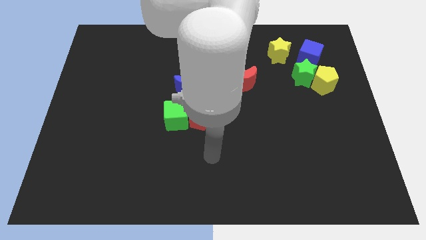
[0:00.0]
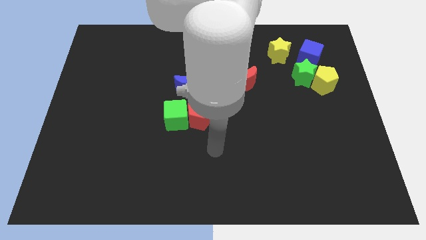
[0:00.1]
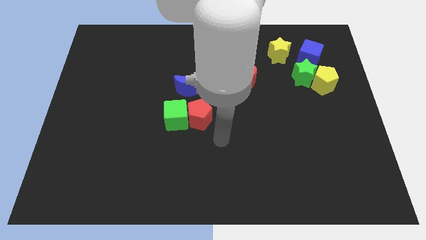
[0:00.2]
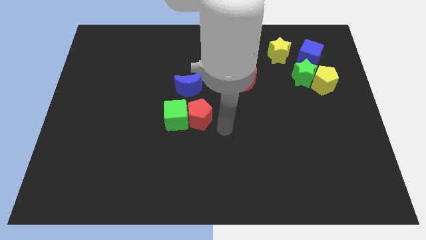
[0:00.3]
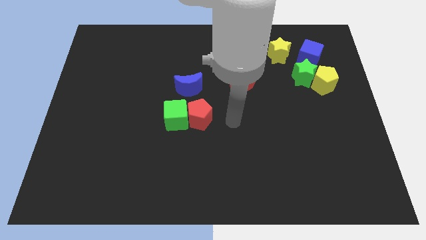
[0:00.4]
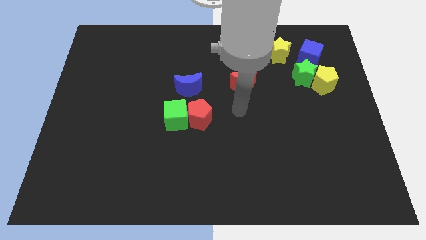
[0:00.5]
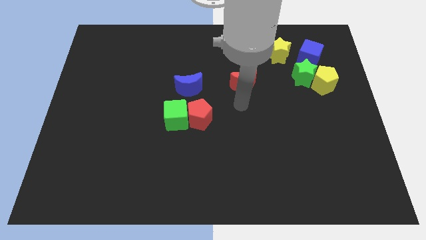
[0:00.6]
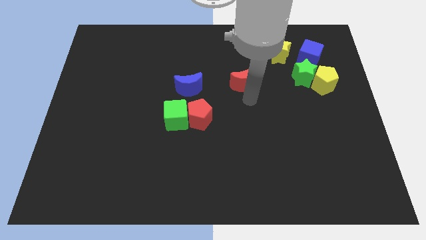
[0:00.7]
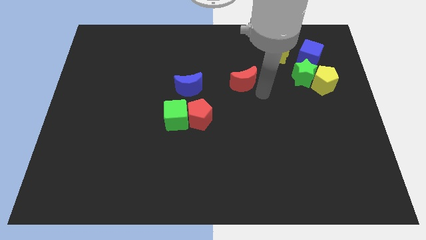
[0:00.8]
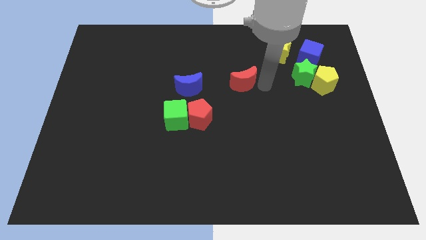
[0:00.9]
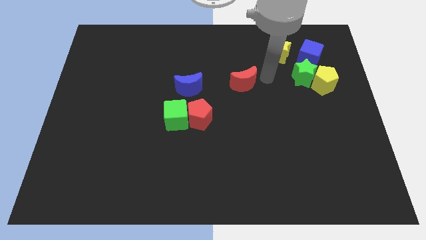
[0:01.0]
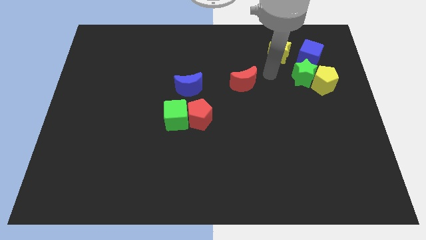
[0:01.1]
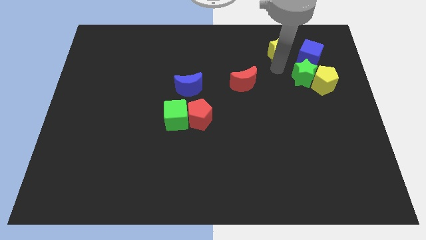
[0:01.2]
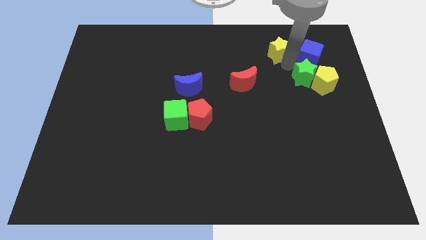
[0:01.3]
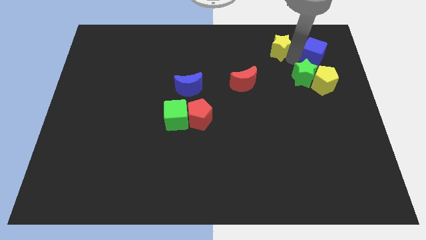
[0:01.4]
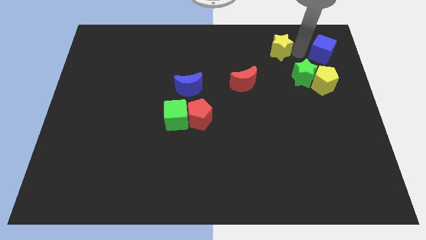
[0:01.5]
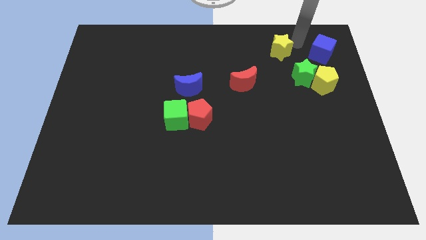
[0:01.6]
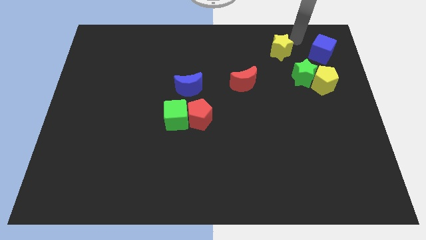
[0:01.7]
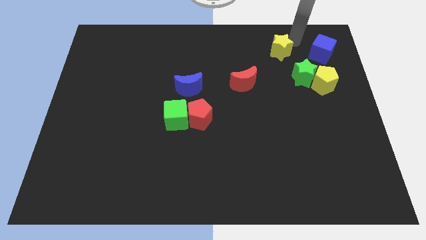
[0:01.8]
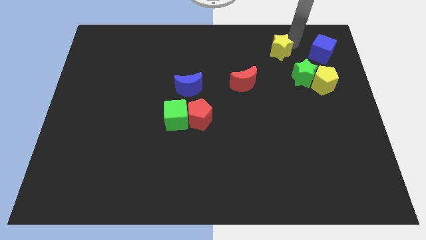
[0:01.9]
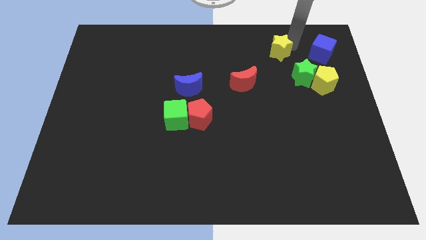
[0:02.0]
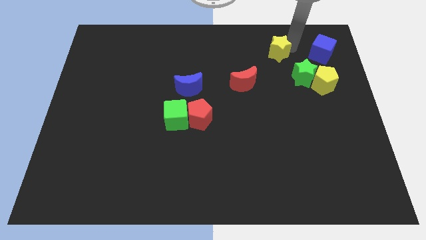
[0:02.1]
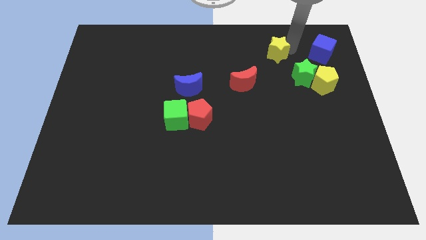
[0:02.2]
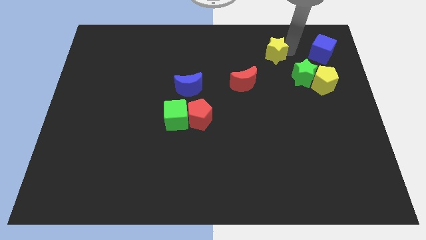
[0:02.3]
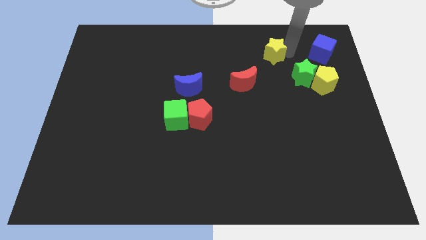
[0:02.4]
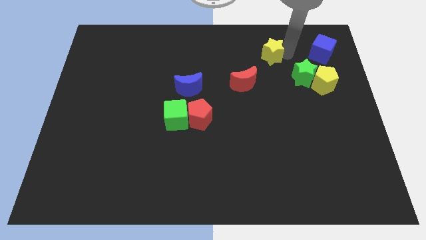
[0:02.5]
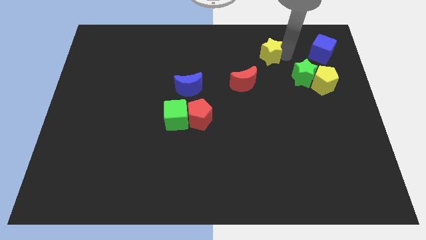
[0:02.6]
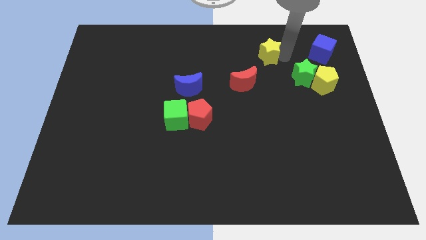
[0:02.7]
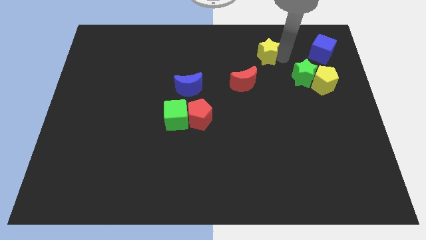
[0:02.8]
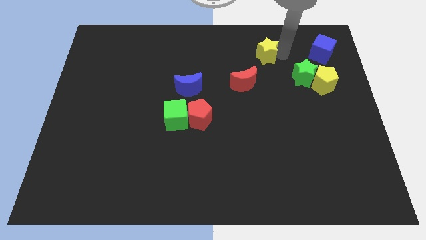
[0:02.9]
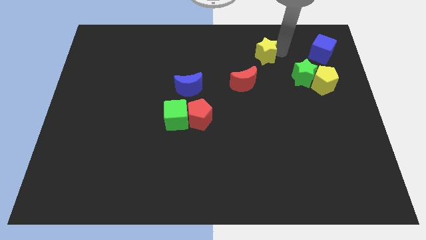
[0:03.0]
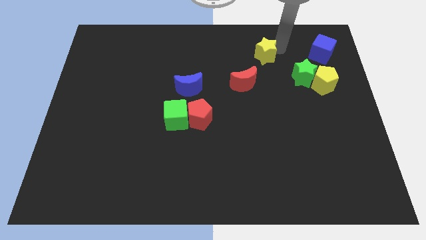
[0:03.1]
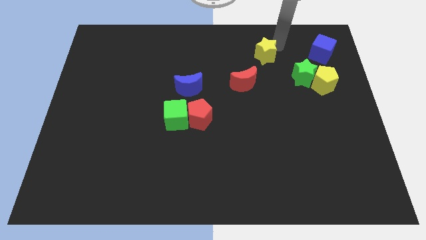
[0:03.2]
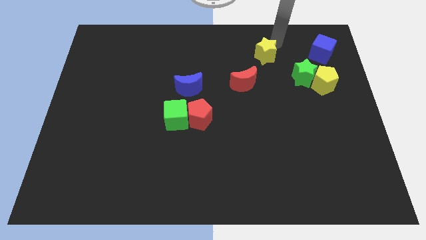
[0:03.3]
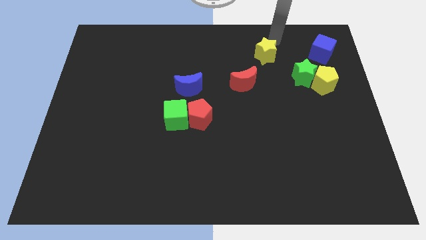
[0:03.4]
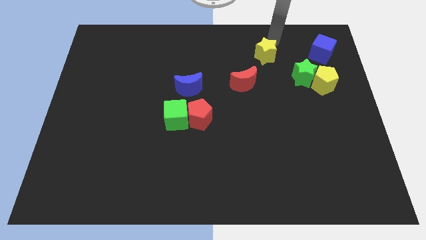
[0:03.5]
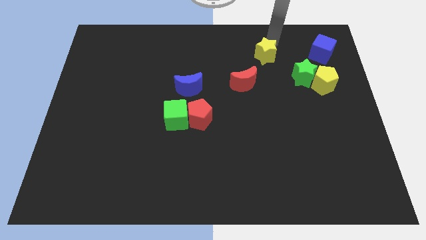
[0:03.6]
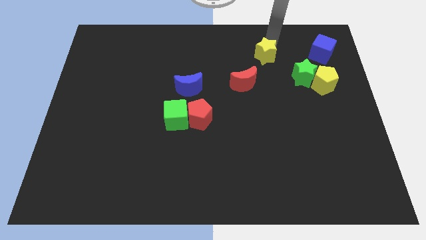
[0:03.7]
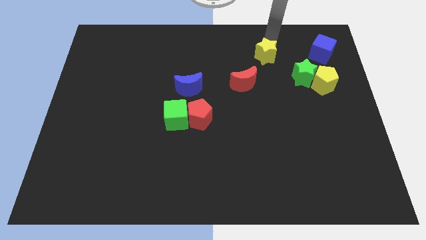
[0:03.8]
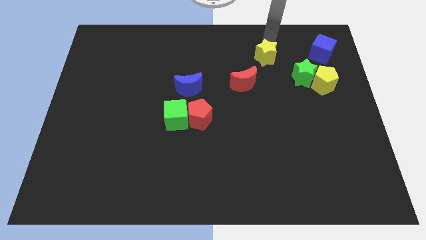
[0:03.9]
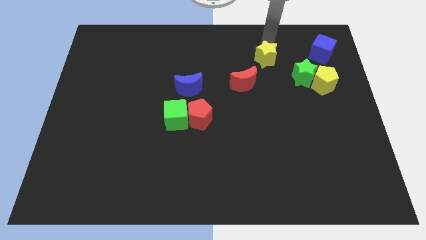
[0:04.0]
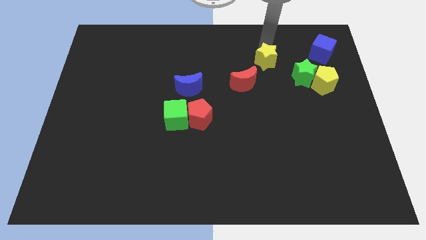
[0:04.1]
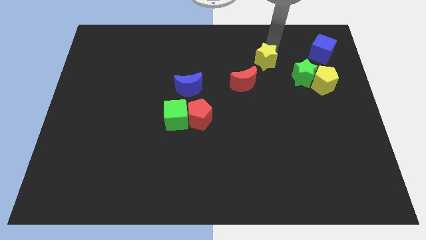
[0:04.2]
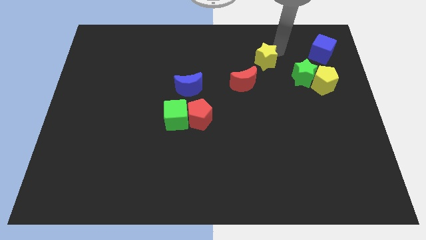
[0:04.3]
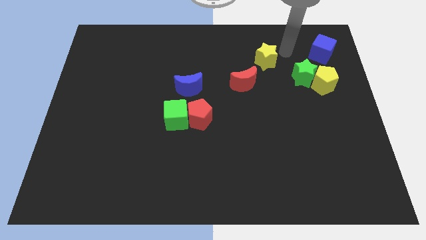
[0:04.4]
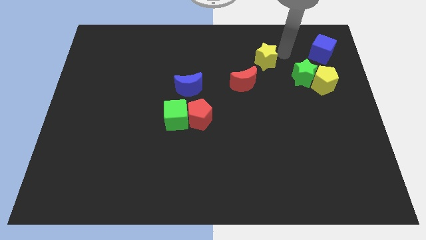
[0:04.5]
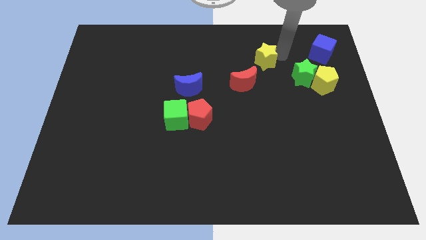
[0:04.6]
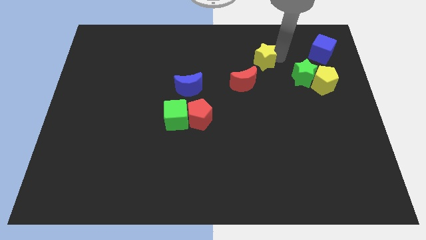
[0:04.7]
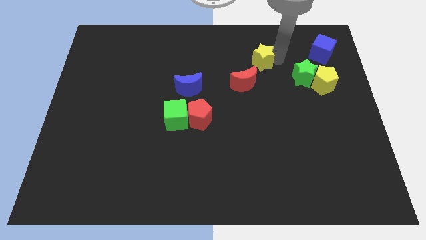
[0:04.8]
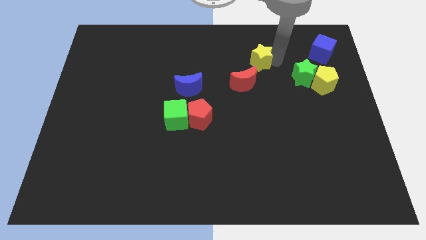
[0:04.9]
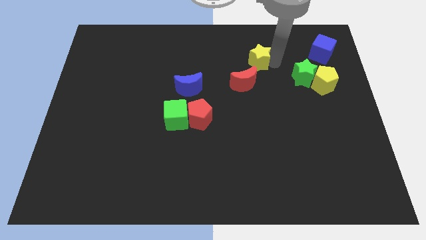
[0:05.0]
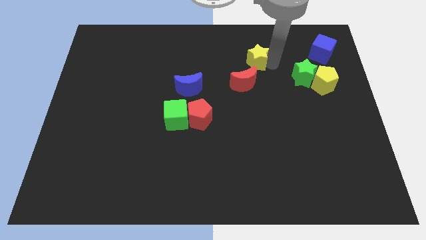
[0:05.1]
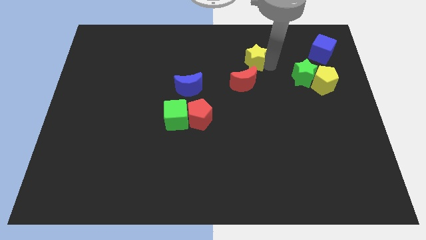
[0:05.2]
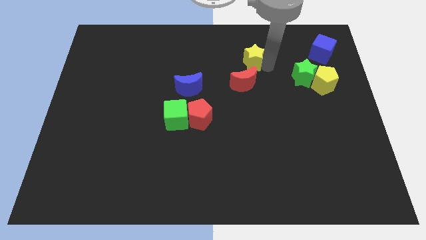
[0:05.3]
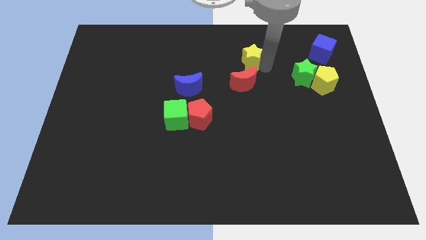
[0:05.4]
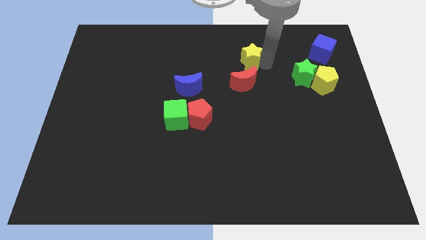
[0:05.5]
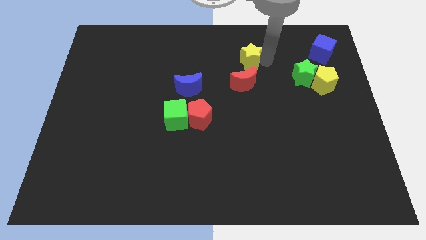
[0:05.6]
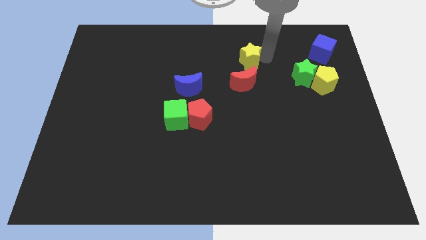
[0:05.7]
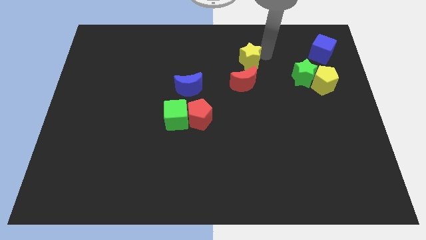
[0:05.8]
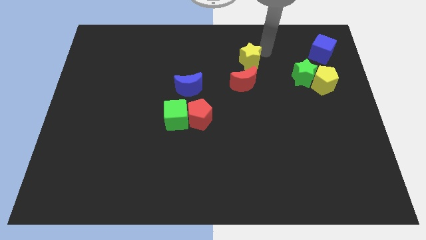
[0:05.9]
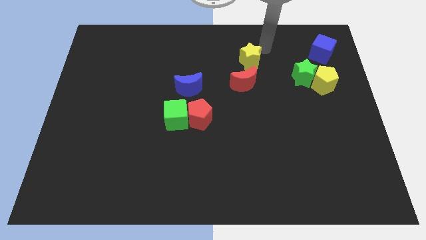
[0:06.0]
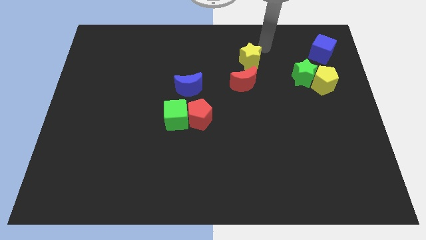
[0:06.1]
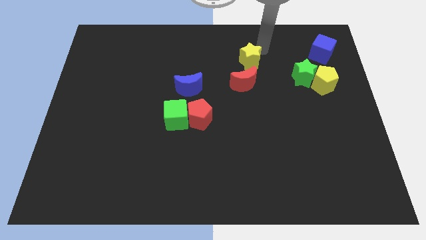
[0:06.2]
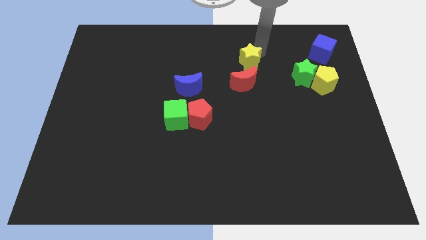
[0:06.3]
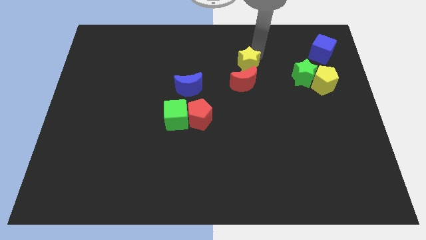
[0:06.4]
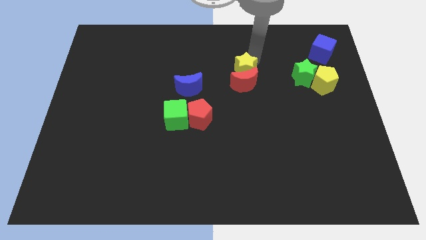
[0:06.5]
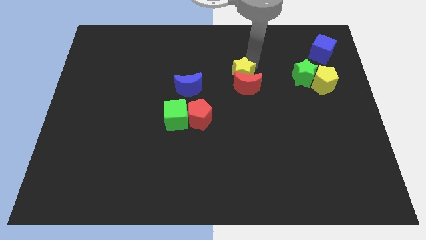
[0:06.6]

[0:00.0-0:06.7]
put the yellow star to the center of the board

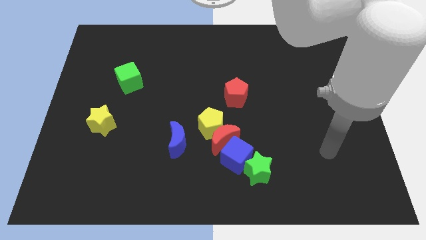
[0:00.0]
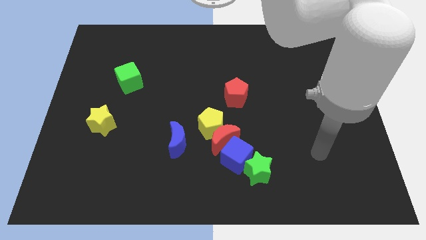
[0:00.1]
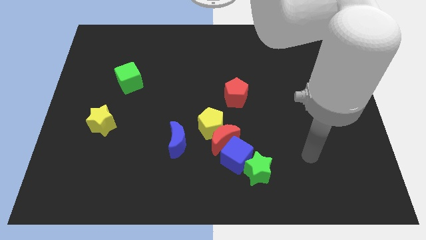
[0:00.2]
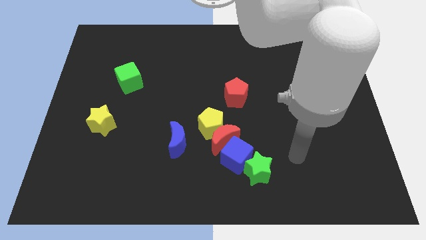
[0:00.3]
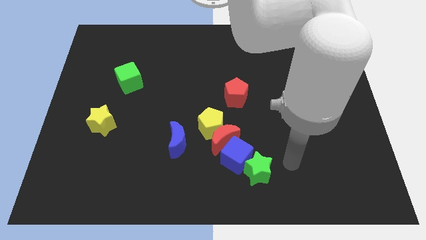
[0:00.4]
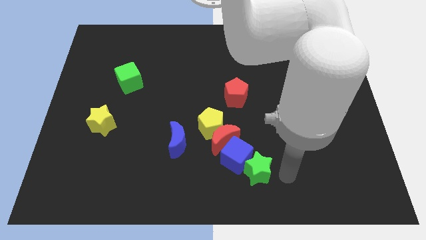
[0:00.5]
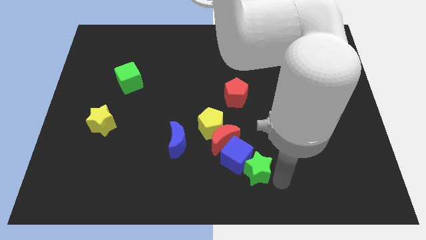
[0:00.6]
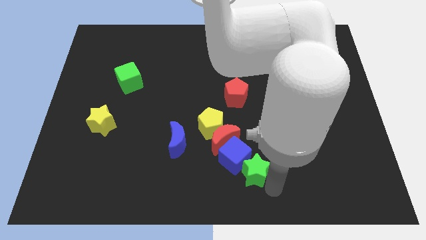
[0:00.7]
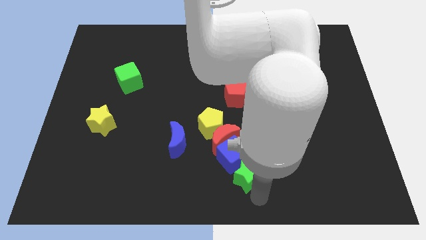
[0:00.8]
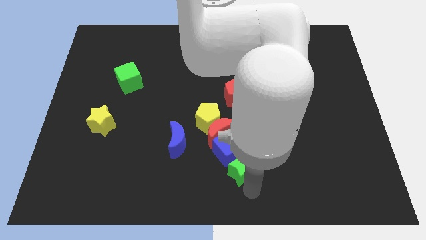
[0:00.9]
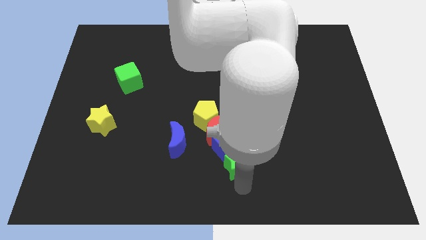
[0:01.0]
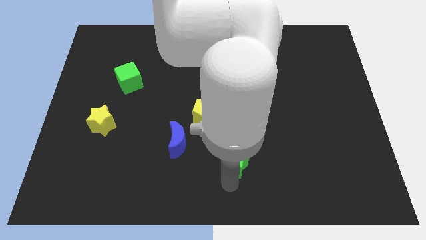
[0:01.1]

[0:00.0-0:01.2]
slide the blue cube to the center
